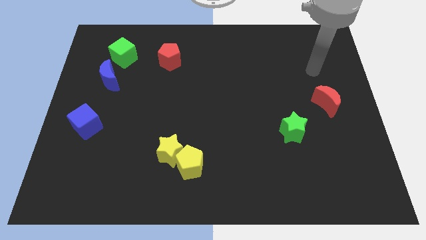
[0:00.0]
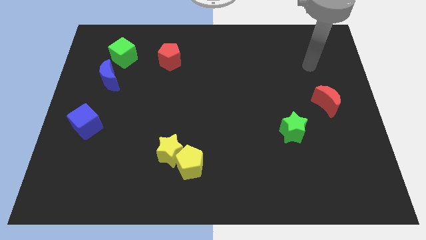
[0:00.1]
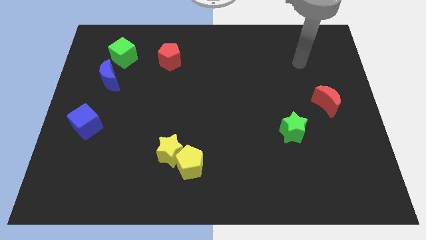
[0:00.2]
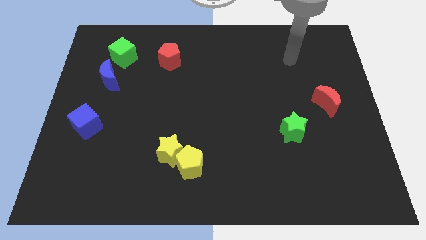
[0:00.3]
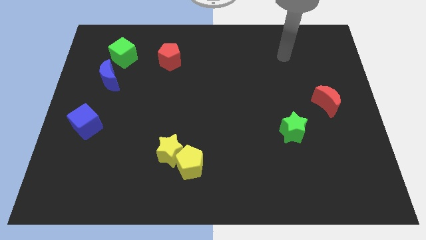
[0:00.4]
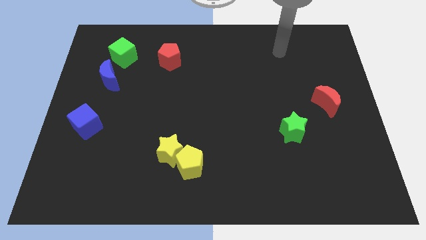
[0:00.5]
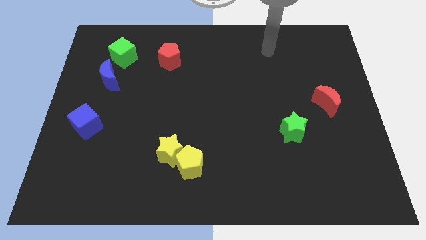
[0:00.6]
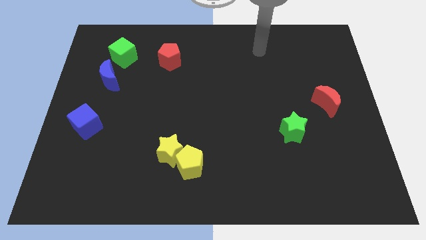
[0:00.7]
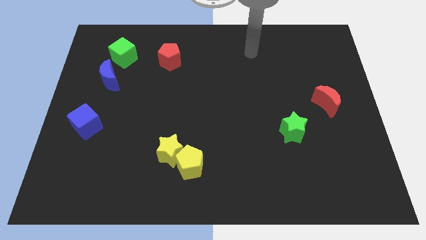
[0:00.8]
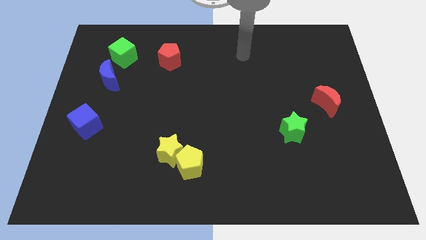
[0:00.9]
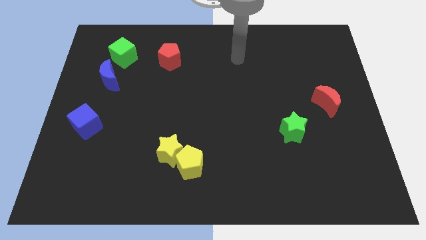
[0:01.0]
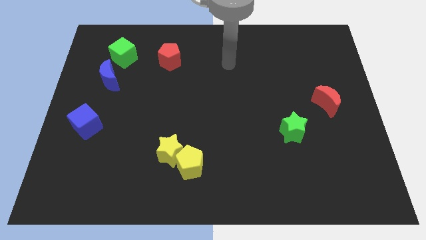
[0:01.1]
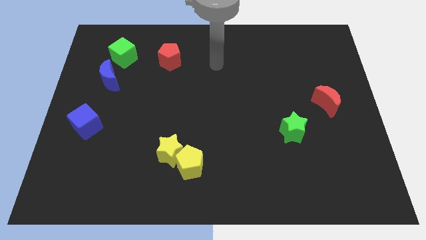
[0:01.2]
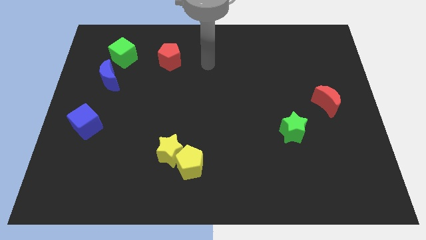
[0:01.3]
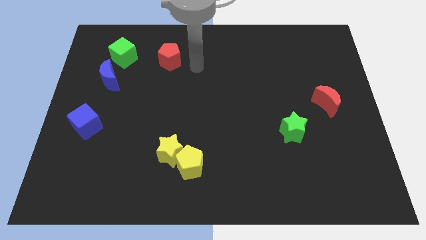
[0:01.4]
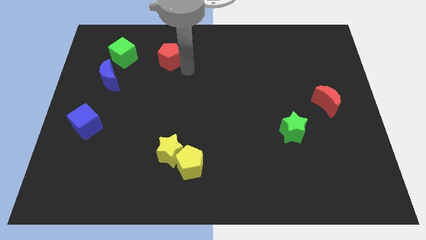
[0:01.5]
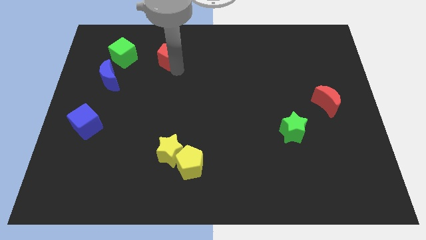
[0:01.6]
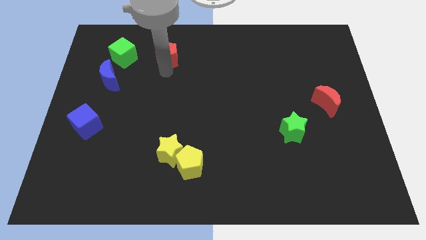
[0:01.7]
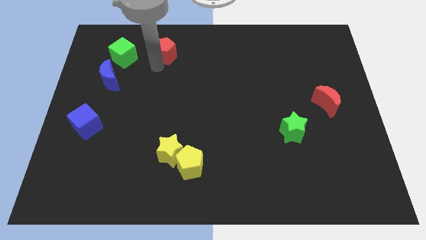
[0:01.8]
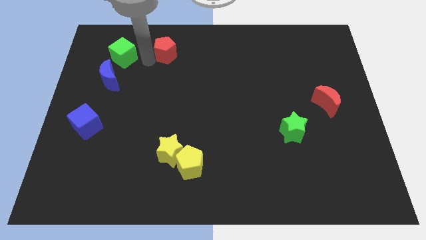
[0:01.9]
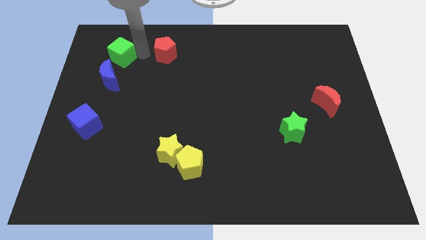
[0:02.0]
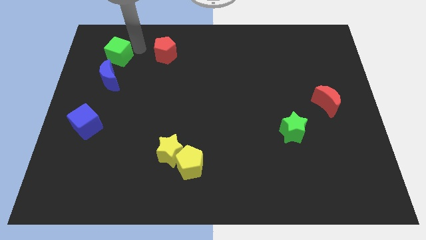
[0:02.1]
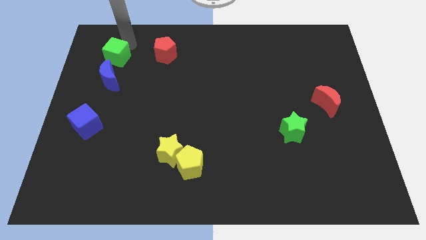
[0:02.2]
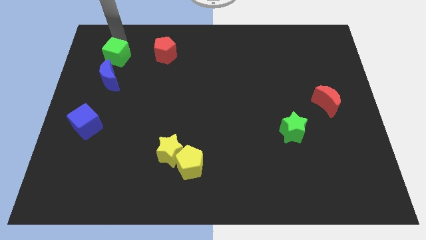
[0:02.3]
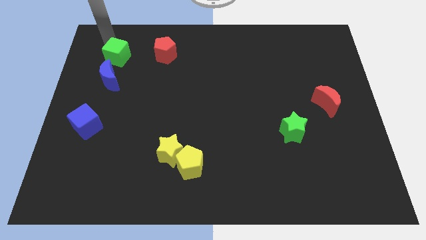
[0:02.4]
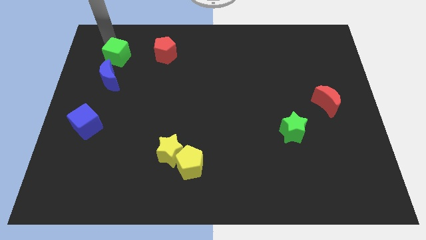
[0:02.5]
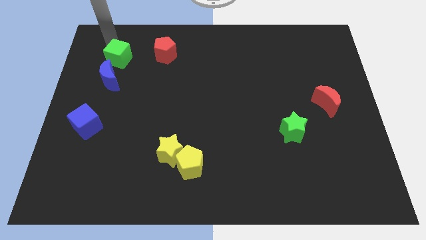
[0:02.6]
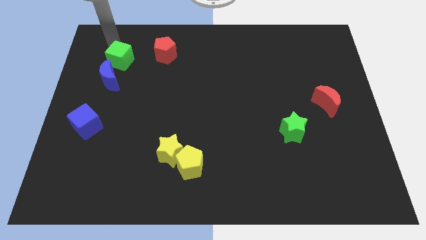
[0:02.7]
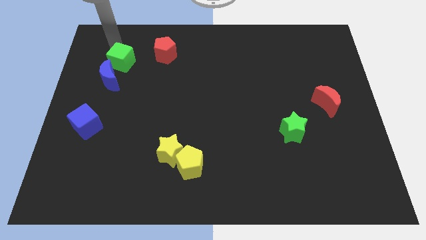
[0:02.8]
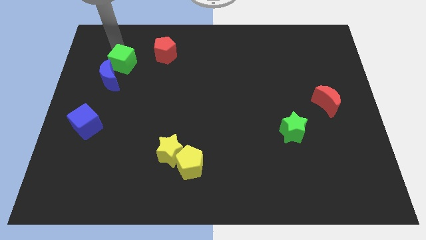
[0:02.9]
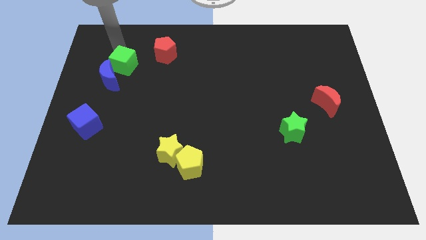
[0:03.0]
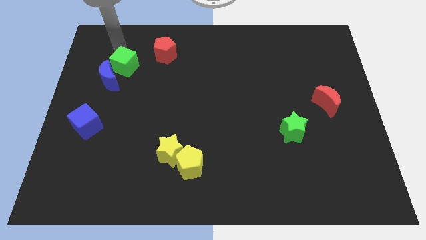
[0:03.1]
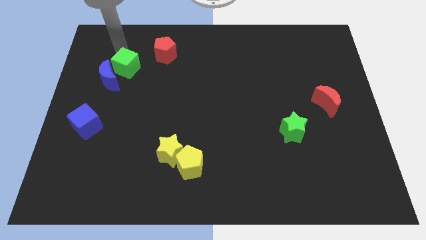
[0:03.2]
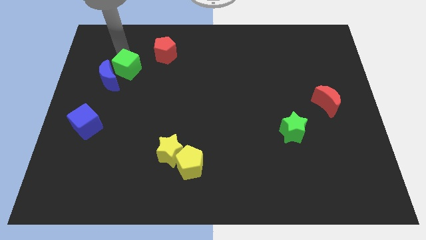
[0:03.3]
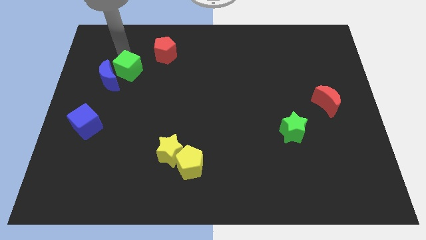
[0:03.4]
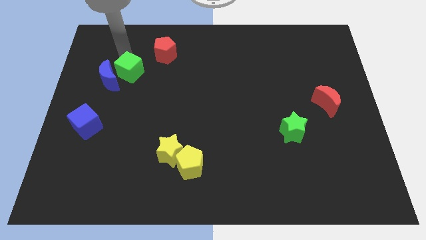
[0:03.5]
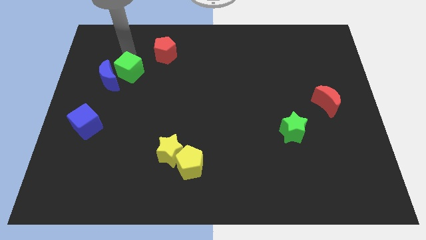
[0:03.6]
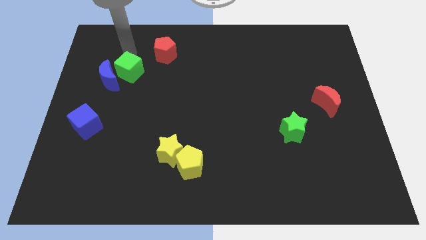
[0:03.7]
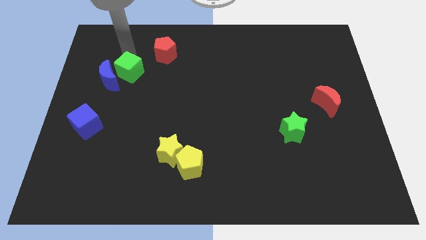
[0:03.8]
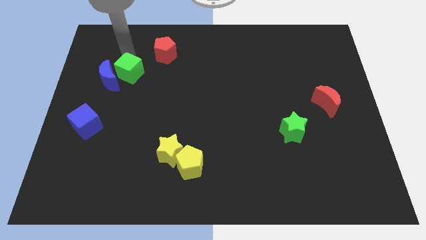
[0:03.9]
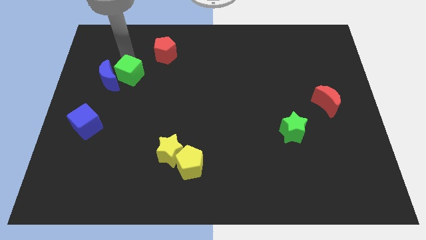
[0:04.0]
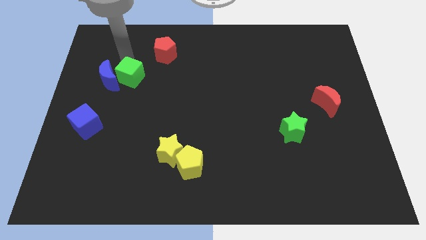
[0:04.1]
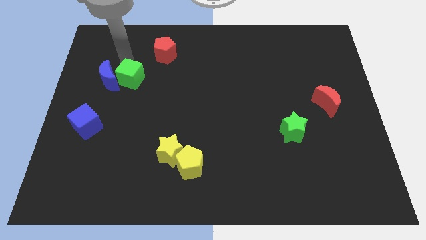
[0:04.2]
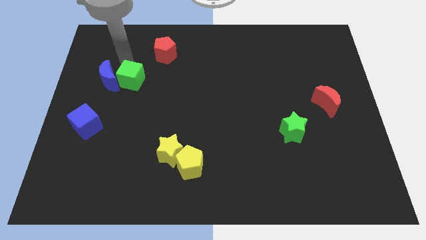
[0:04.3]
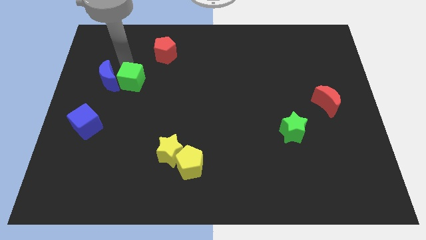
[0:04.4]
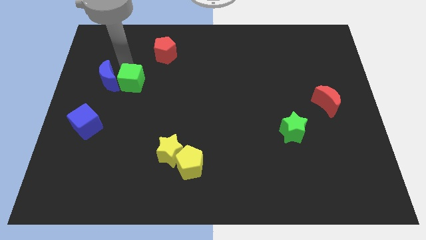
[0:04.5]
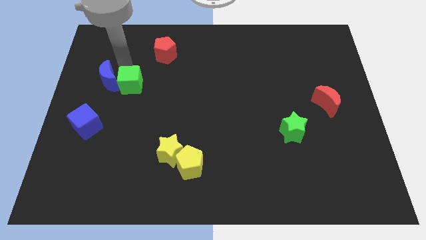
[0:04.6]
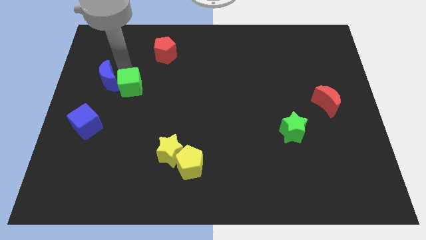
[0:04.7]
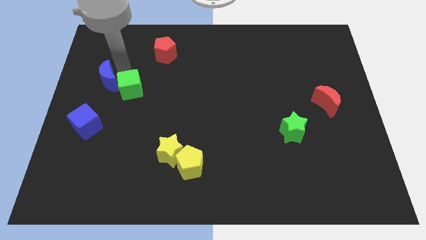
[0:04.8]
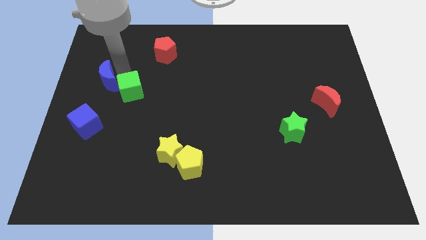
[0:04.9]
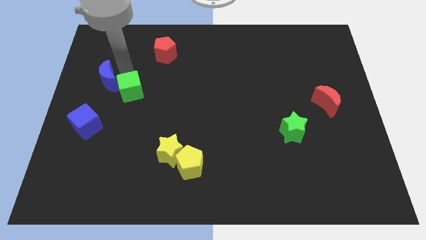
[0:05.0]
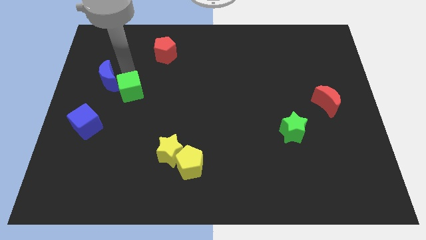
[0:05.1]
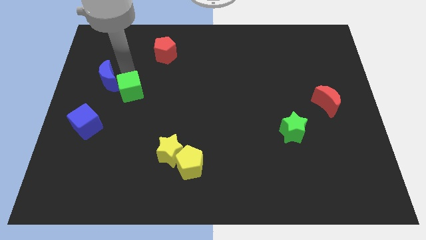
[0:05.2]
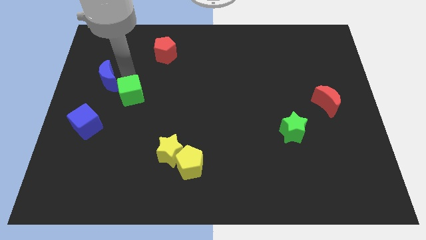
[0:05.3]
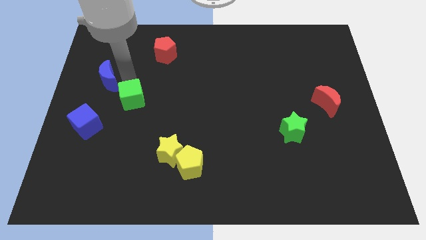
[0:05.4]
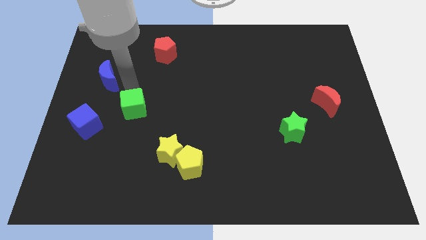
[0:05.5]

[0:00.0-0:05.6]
put the green cube to the right side of the blue cube
